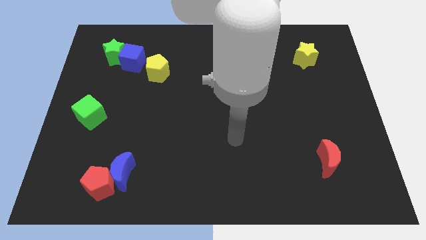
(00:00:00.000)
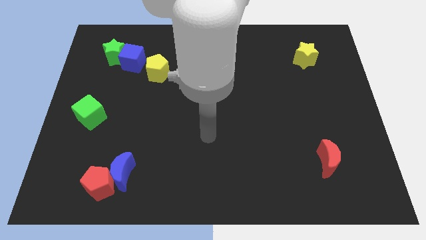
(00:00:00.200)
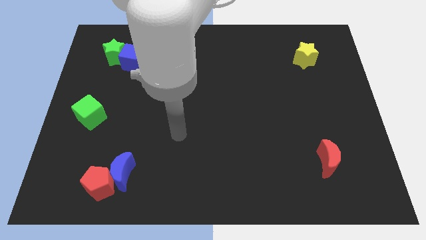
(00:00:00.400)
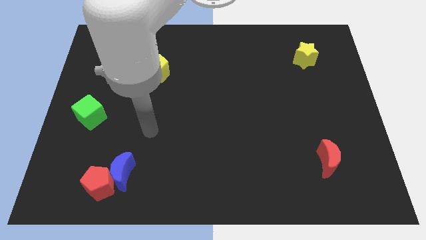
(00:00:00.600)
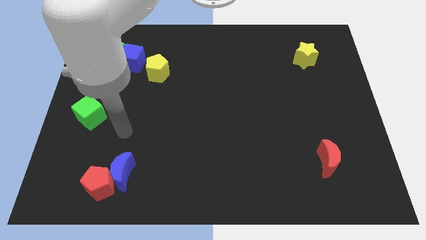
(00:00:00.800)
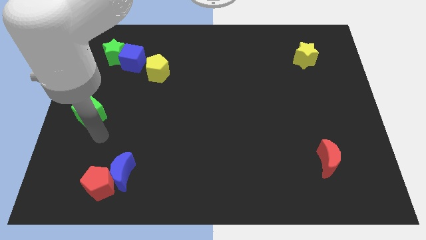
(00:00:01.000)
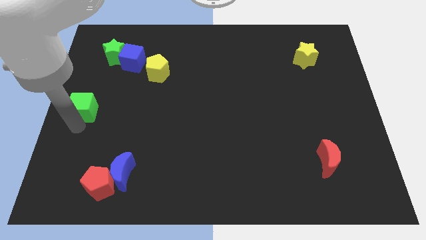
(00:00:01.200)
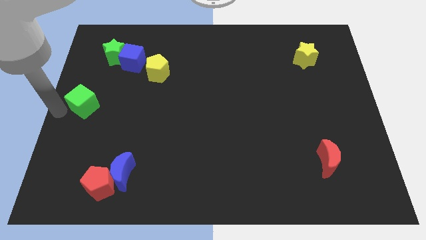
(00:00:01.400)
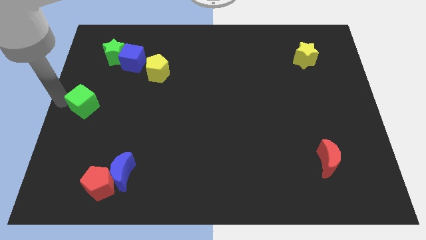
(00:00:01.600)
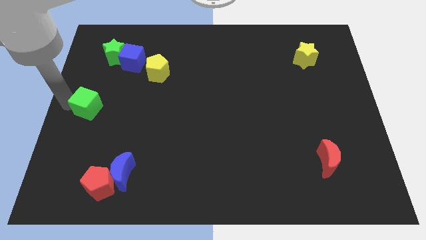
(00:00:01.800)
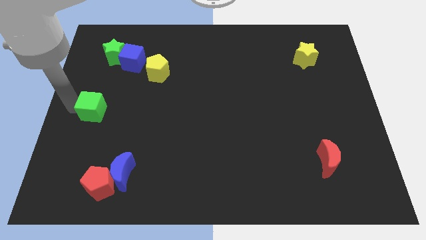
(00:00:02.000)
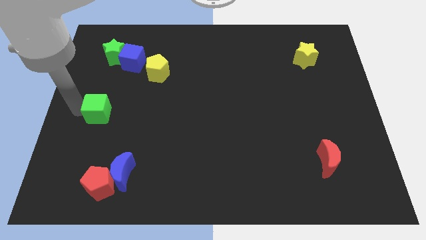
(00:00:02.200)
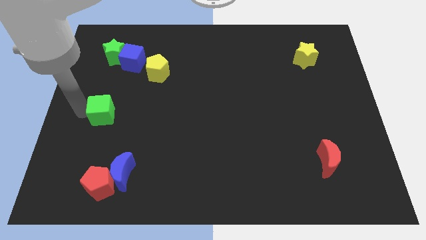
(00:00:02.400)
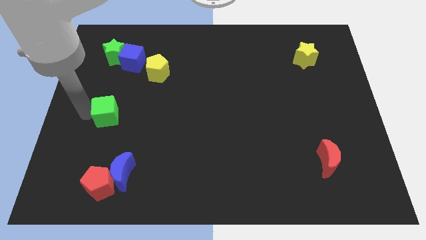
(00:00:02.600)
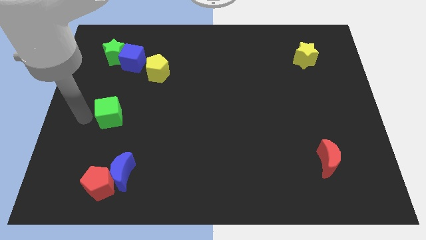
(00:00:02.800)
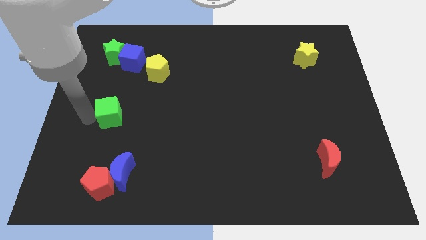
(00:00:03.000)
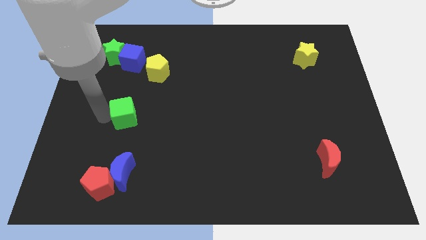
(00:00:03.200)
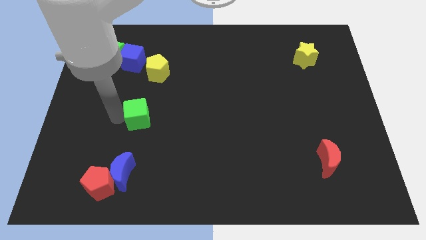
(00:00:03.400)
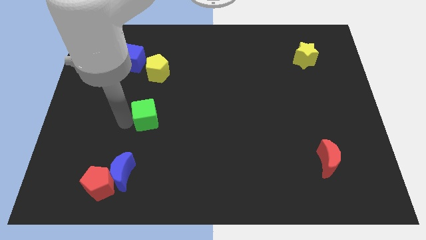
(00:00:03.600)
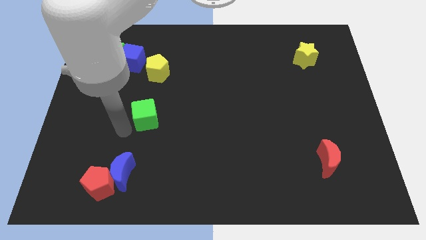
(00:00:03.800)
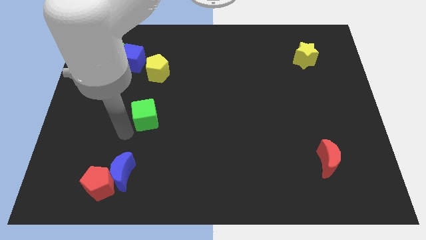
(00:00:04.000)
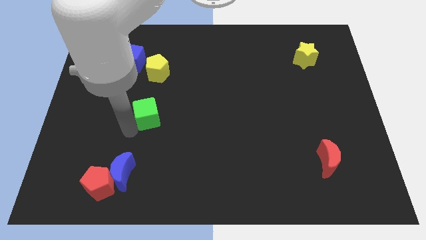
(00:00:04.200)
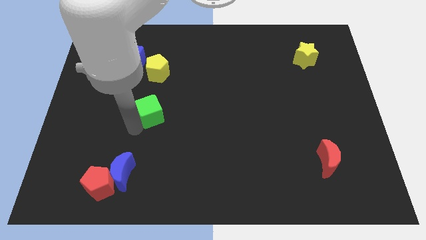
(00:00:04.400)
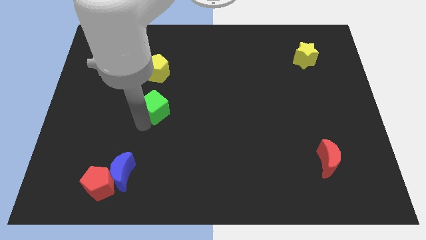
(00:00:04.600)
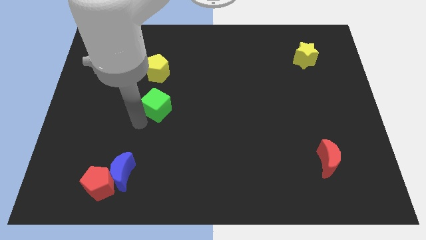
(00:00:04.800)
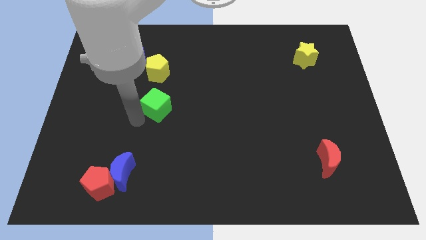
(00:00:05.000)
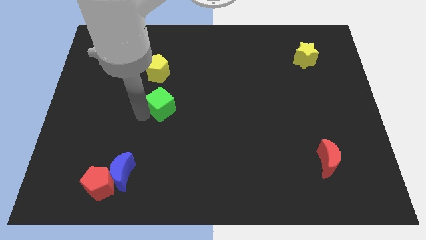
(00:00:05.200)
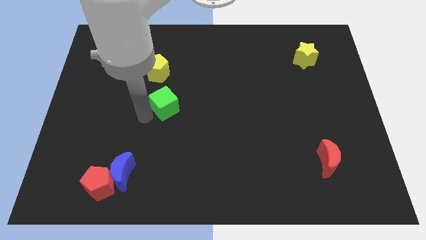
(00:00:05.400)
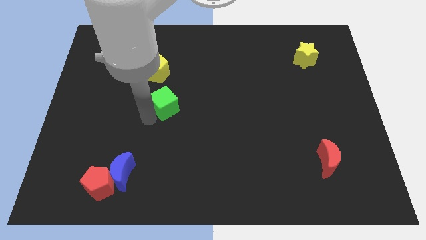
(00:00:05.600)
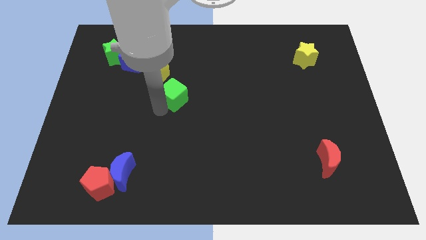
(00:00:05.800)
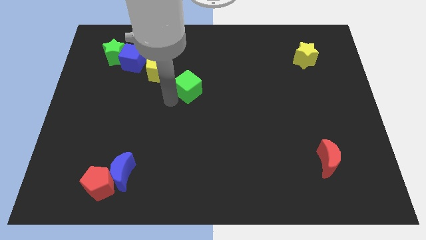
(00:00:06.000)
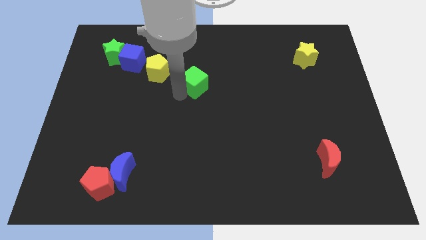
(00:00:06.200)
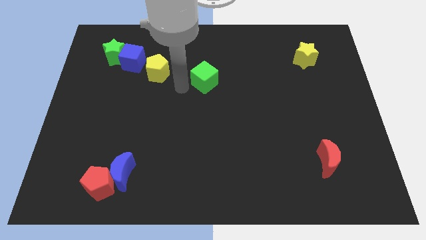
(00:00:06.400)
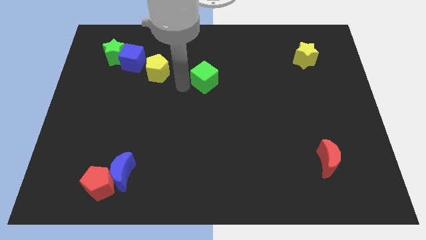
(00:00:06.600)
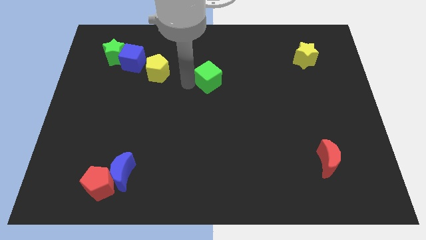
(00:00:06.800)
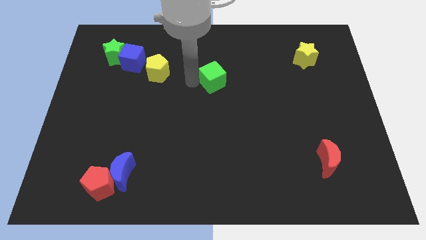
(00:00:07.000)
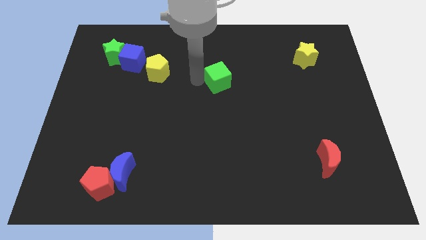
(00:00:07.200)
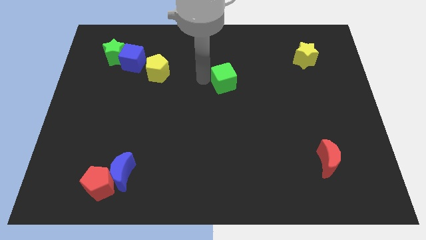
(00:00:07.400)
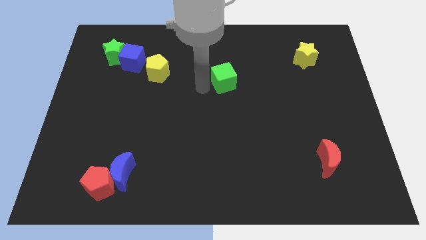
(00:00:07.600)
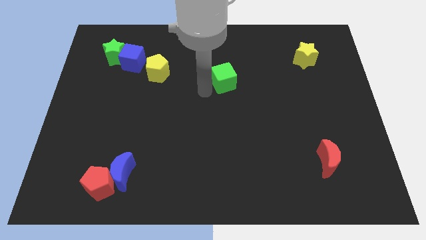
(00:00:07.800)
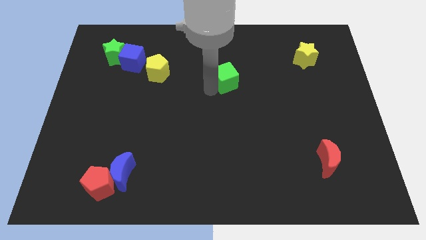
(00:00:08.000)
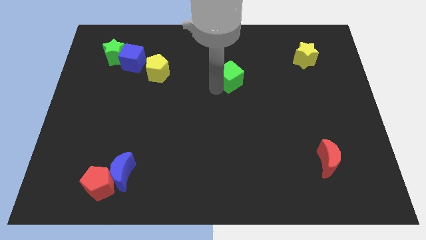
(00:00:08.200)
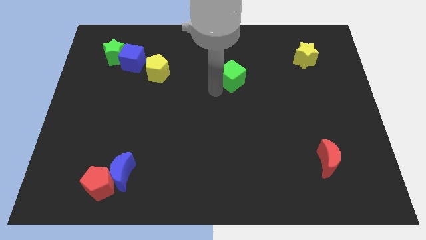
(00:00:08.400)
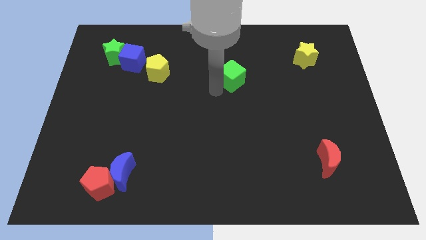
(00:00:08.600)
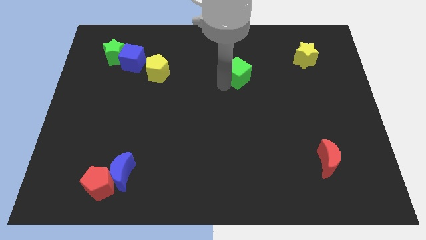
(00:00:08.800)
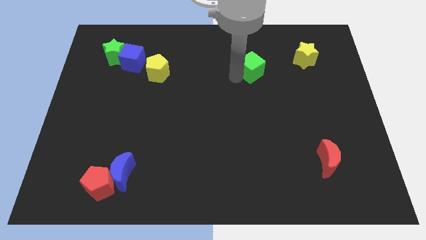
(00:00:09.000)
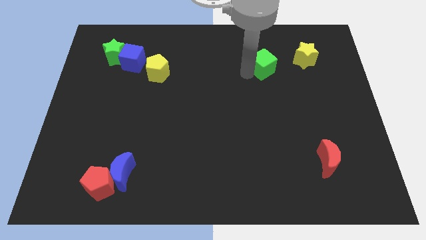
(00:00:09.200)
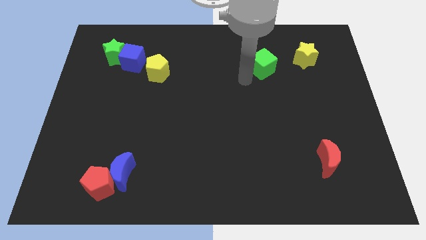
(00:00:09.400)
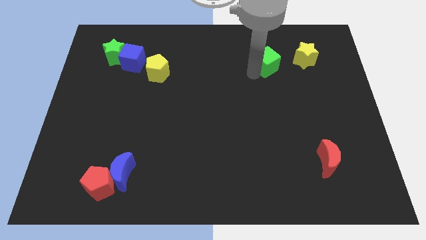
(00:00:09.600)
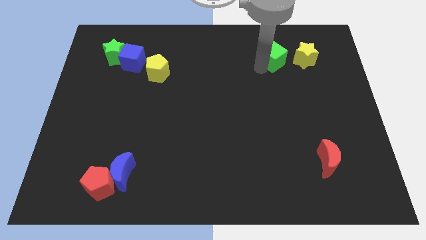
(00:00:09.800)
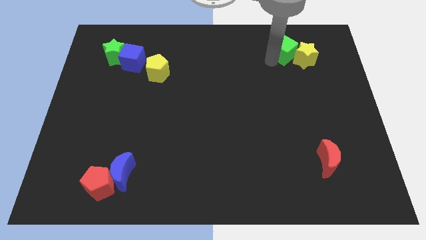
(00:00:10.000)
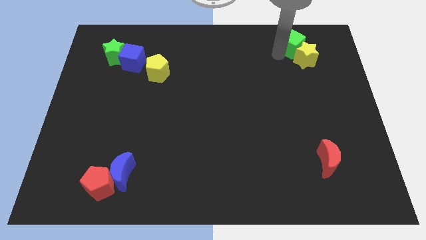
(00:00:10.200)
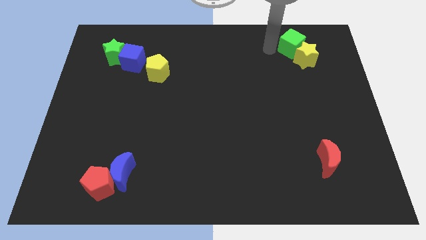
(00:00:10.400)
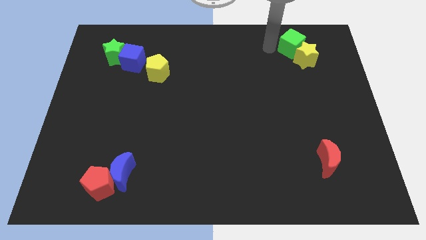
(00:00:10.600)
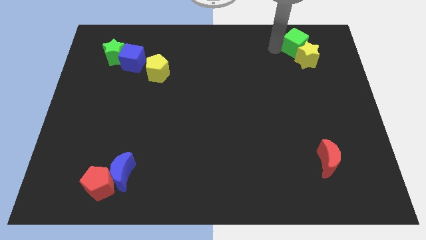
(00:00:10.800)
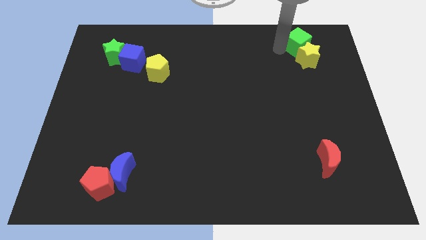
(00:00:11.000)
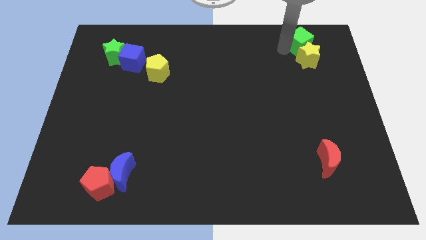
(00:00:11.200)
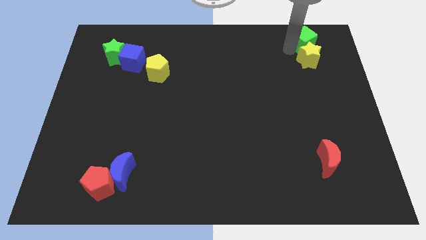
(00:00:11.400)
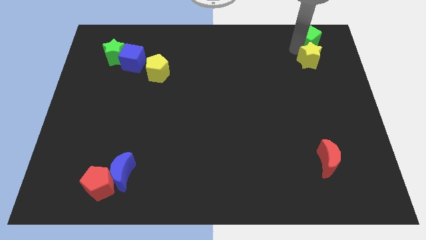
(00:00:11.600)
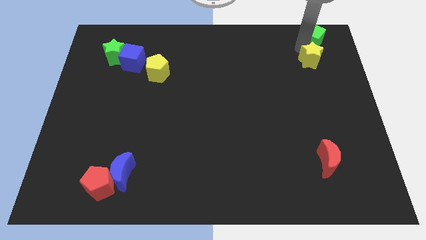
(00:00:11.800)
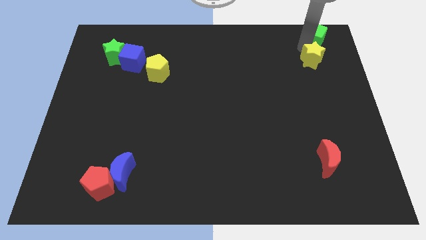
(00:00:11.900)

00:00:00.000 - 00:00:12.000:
slide the green cube to the upper right corner
